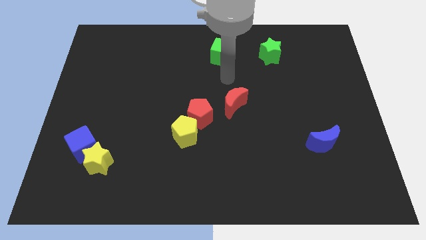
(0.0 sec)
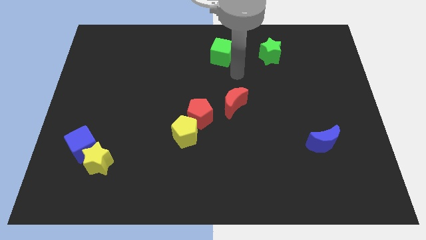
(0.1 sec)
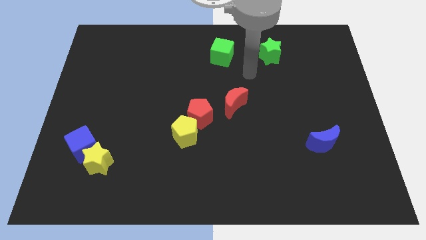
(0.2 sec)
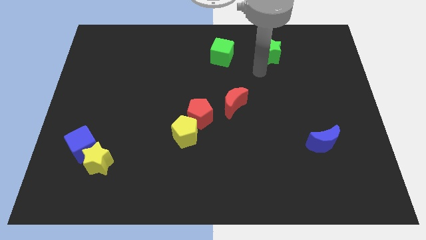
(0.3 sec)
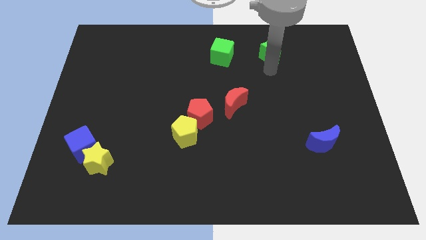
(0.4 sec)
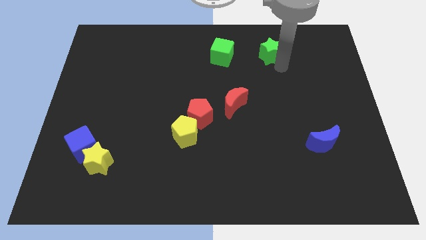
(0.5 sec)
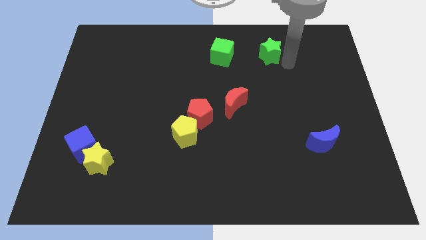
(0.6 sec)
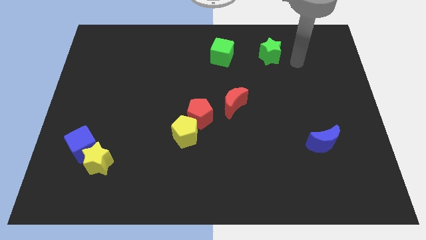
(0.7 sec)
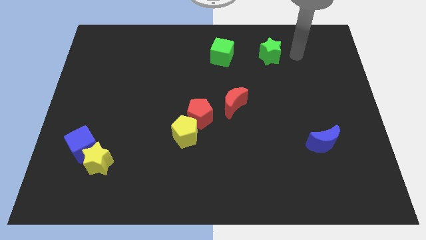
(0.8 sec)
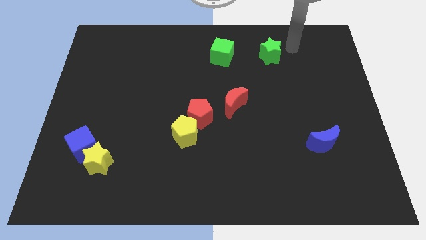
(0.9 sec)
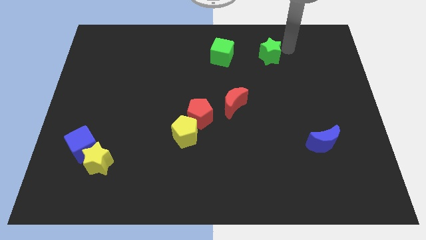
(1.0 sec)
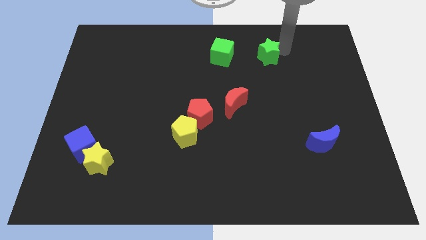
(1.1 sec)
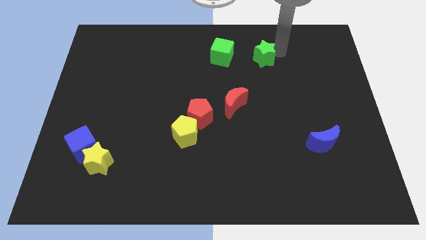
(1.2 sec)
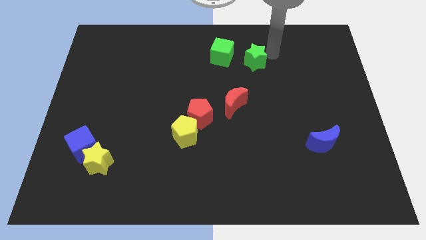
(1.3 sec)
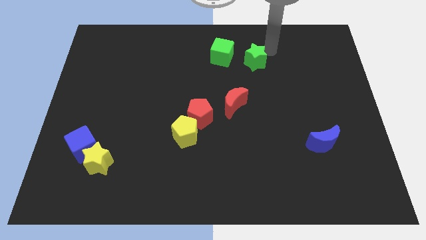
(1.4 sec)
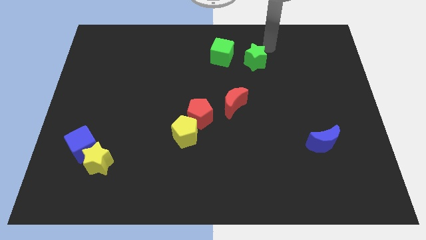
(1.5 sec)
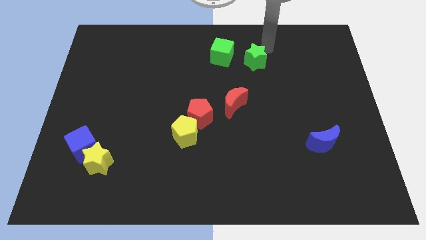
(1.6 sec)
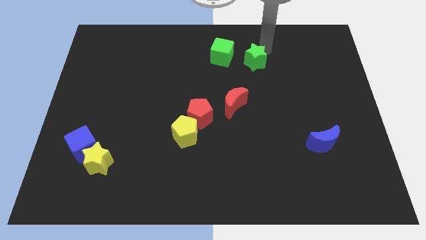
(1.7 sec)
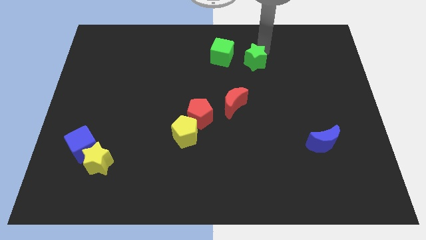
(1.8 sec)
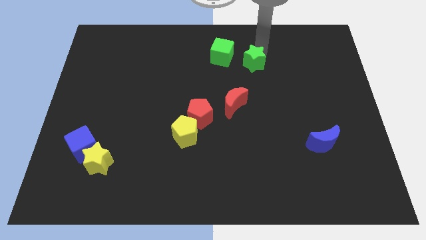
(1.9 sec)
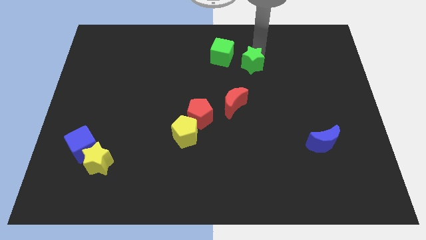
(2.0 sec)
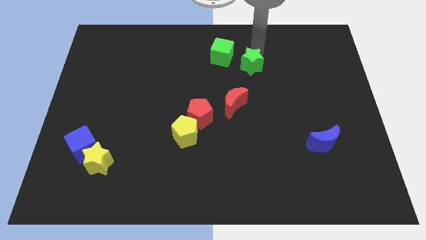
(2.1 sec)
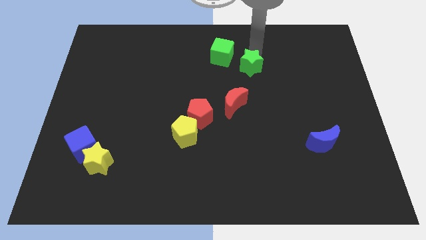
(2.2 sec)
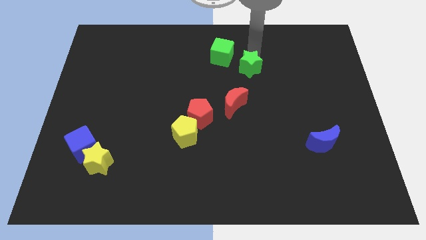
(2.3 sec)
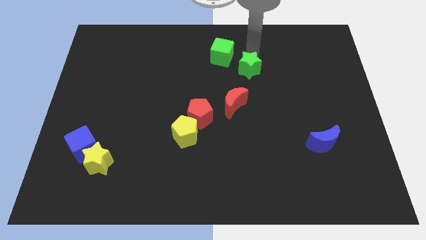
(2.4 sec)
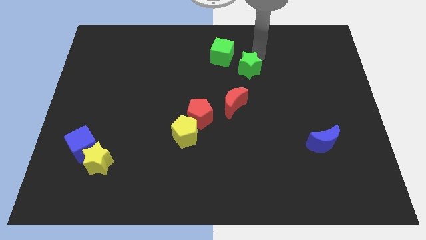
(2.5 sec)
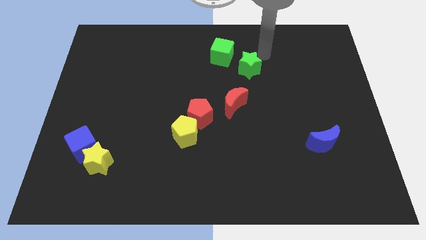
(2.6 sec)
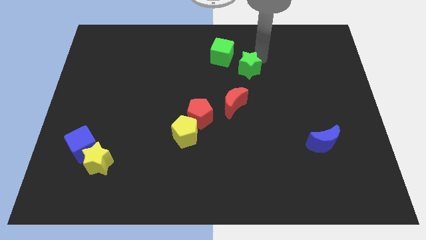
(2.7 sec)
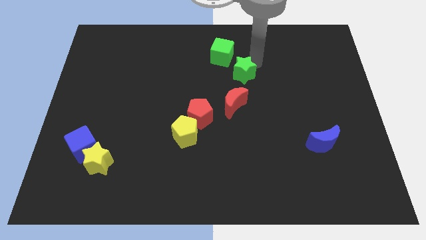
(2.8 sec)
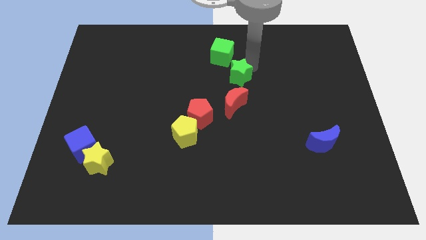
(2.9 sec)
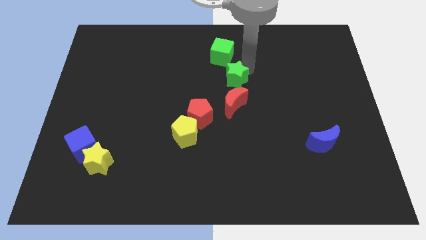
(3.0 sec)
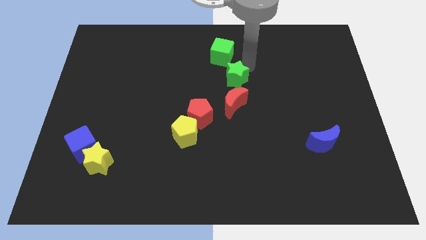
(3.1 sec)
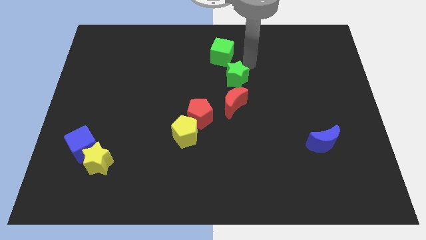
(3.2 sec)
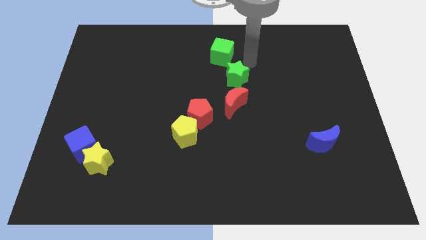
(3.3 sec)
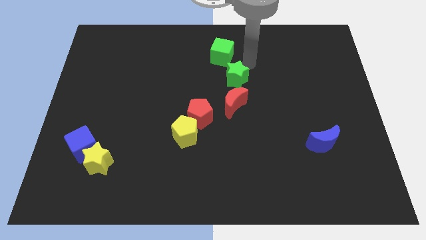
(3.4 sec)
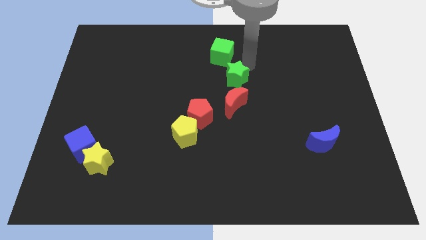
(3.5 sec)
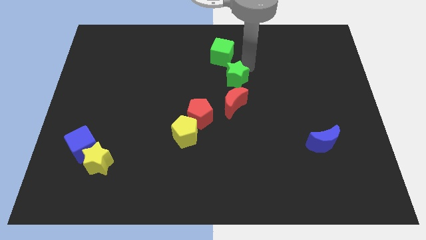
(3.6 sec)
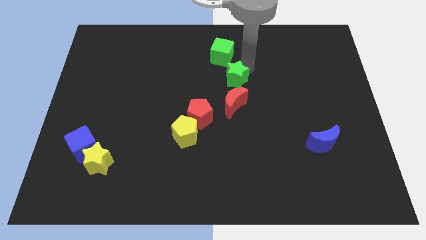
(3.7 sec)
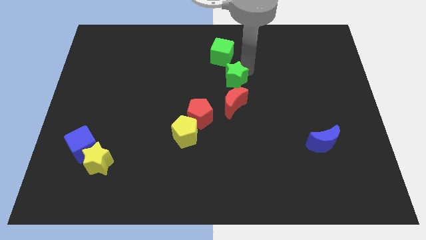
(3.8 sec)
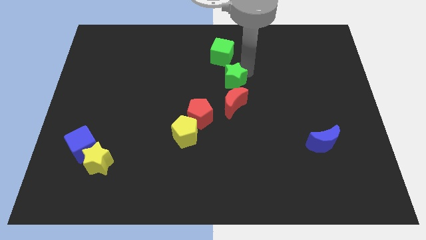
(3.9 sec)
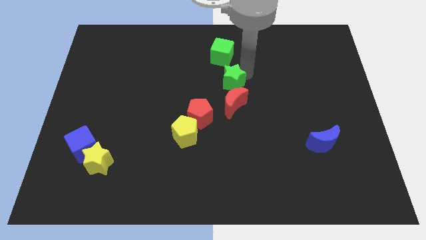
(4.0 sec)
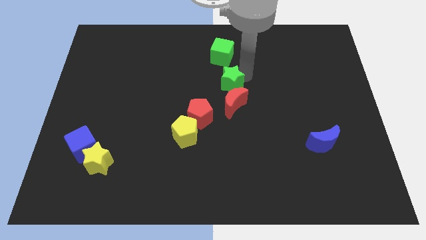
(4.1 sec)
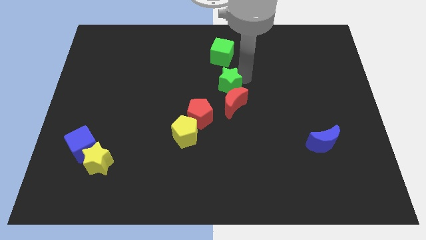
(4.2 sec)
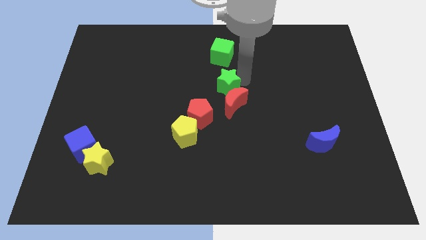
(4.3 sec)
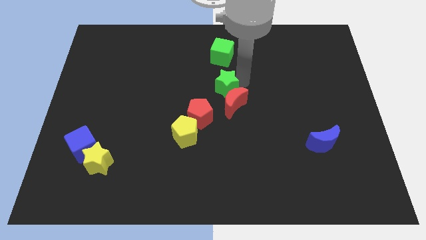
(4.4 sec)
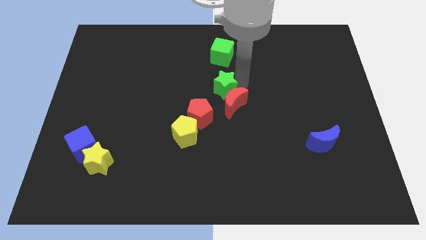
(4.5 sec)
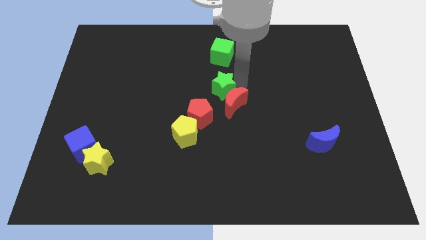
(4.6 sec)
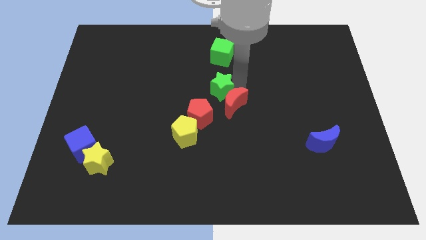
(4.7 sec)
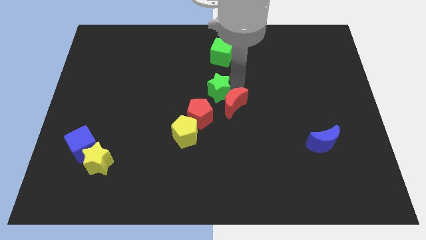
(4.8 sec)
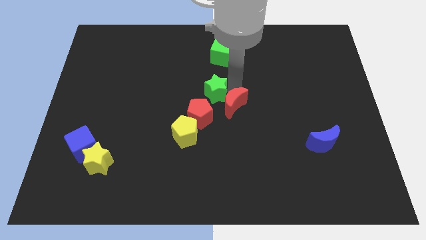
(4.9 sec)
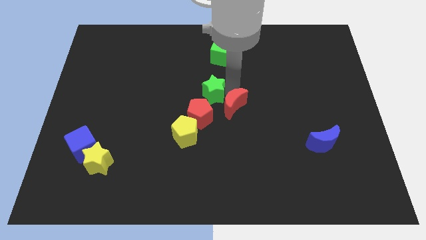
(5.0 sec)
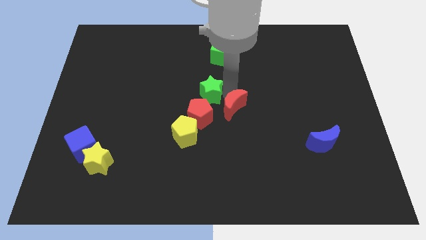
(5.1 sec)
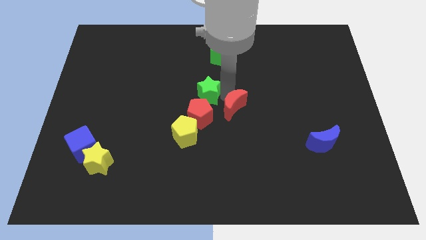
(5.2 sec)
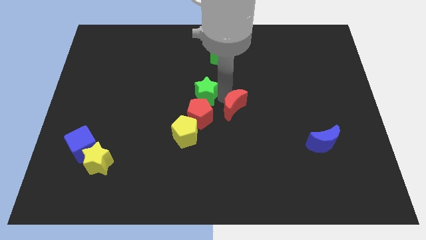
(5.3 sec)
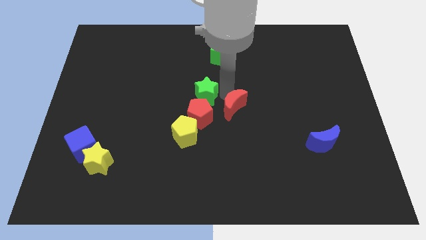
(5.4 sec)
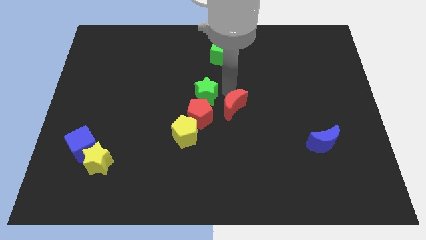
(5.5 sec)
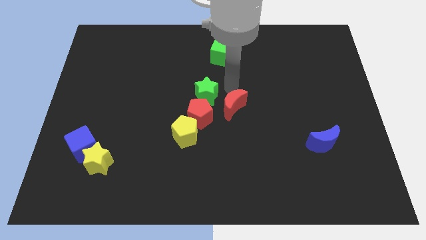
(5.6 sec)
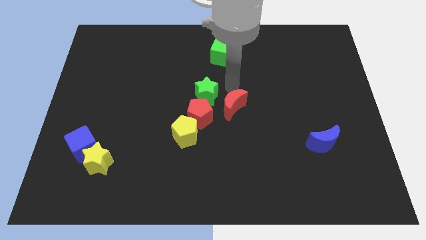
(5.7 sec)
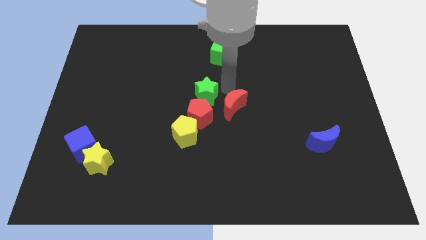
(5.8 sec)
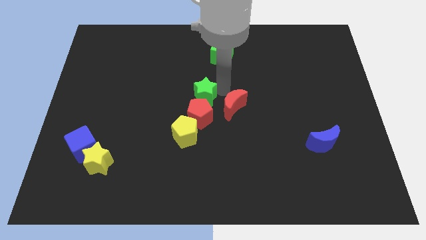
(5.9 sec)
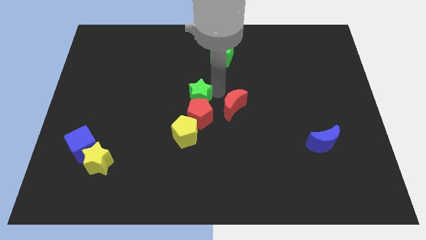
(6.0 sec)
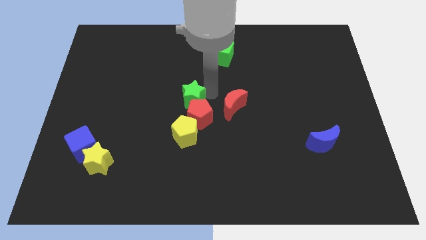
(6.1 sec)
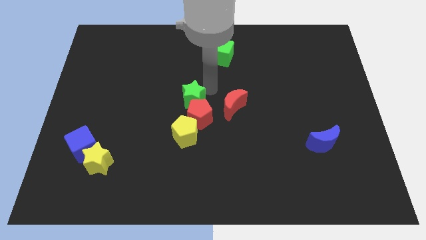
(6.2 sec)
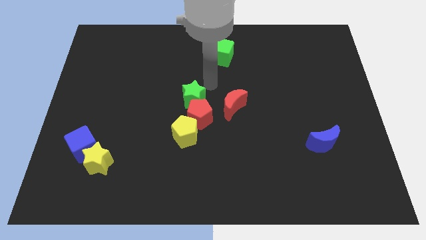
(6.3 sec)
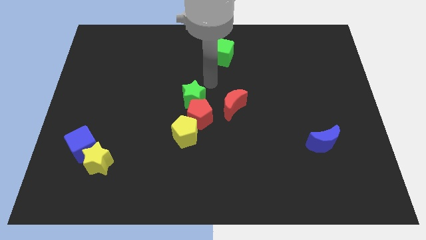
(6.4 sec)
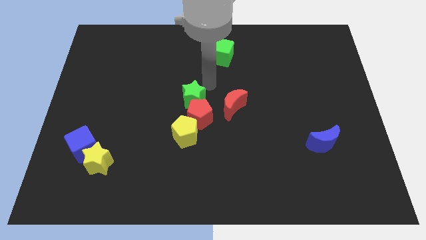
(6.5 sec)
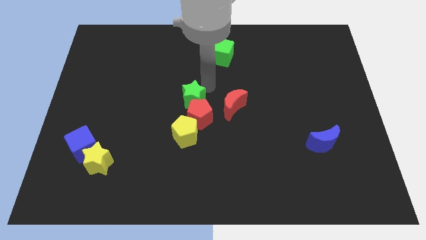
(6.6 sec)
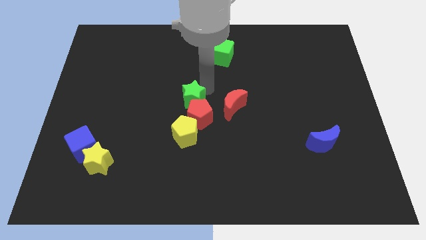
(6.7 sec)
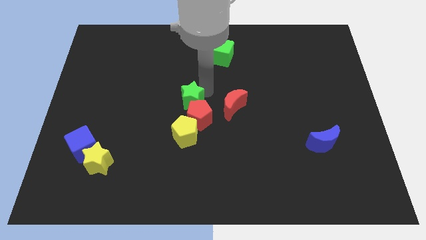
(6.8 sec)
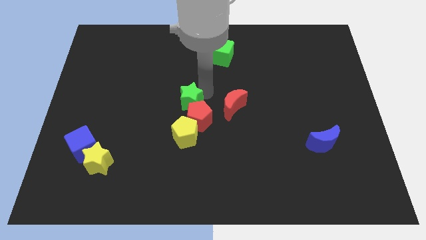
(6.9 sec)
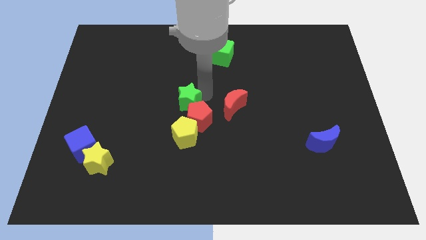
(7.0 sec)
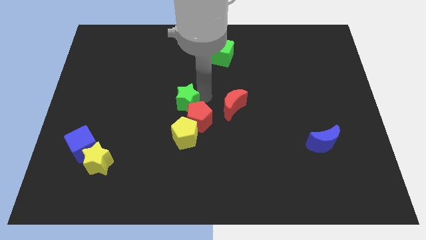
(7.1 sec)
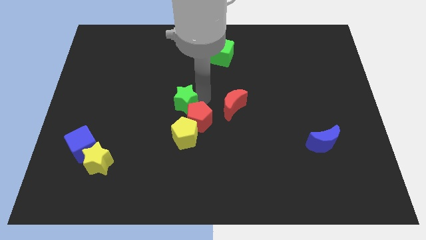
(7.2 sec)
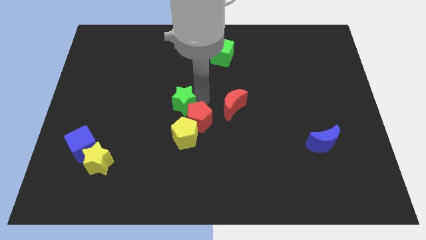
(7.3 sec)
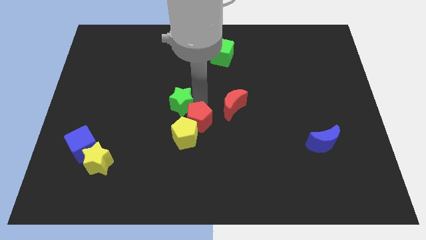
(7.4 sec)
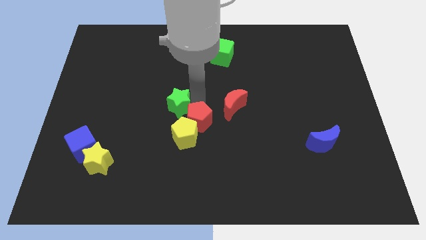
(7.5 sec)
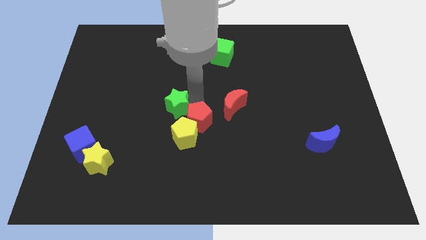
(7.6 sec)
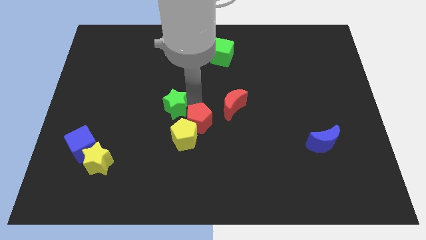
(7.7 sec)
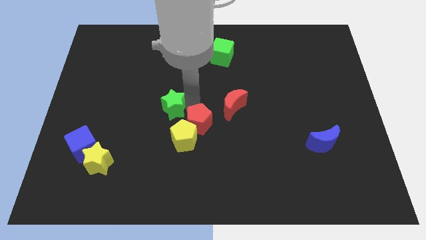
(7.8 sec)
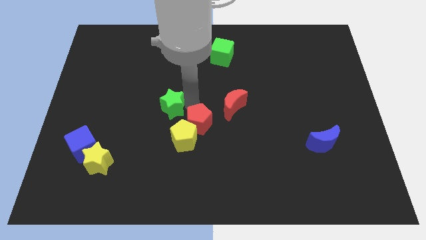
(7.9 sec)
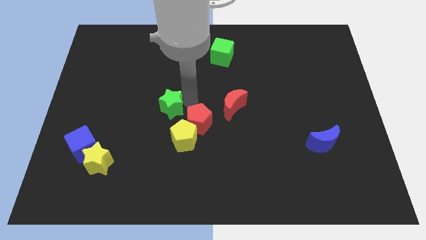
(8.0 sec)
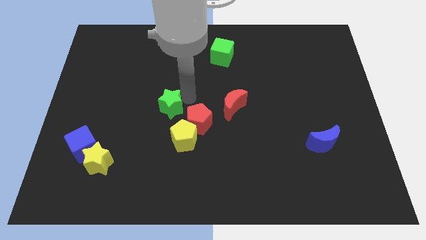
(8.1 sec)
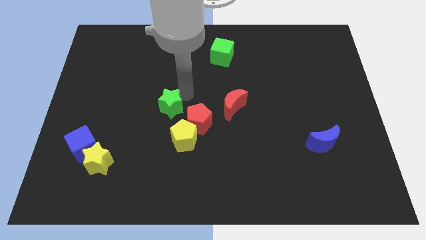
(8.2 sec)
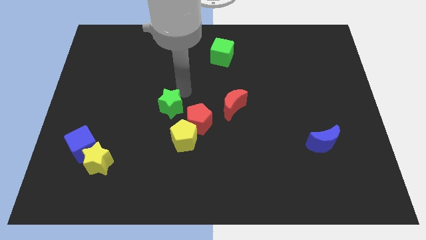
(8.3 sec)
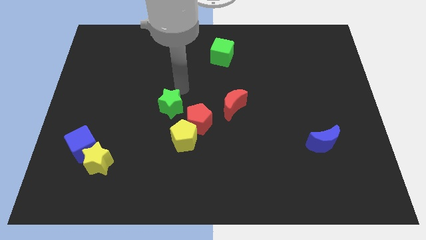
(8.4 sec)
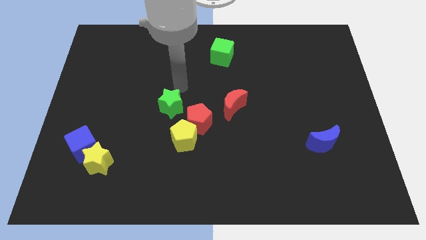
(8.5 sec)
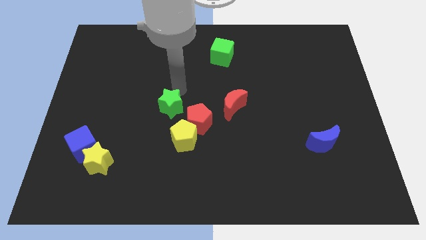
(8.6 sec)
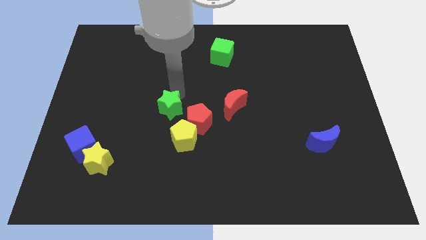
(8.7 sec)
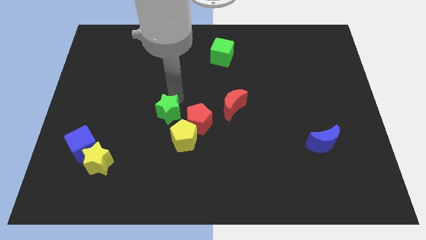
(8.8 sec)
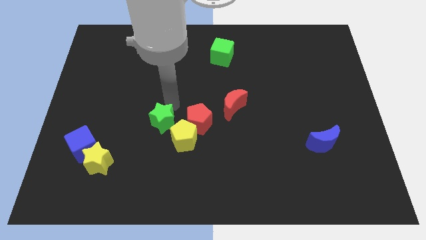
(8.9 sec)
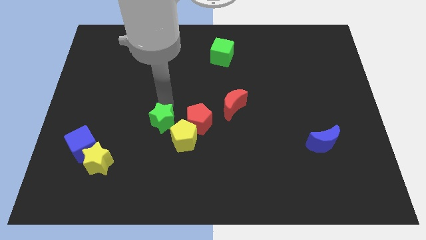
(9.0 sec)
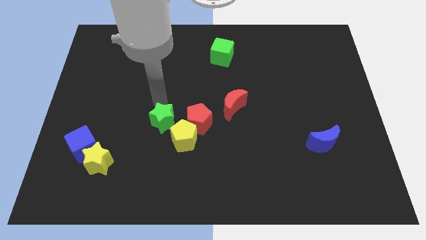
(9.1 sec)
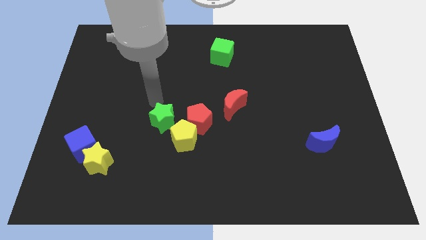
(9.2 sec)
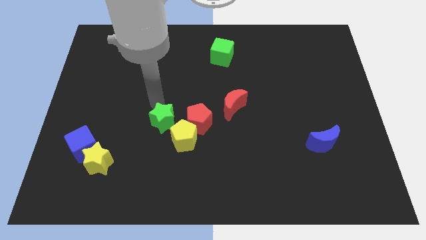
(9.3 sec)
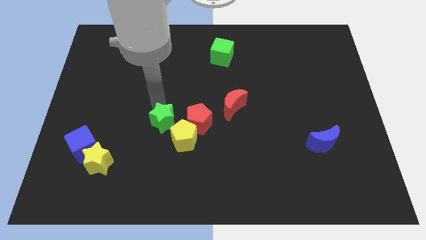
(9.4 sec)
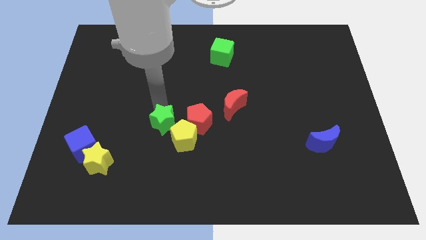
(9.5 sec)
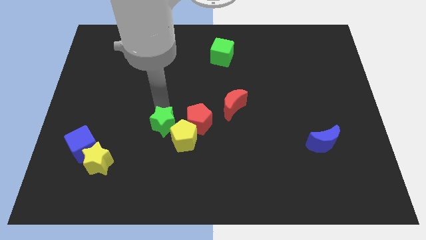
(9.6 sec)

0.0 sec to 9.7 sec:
move the green star to the bottom left of the red pentagon
